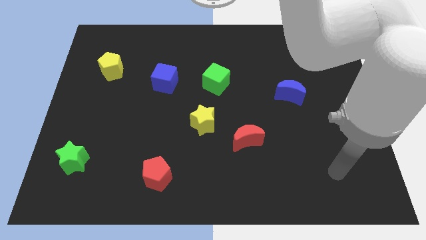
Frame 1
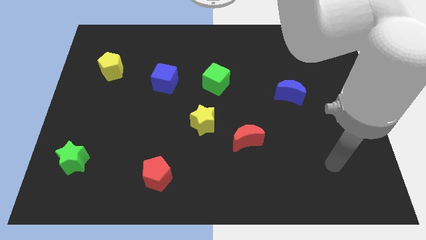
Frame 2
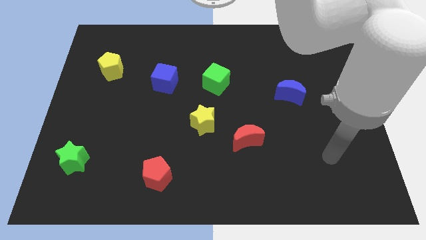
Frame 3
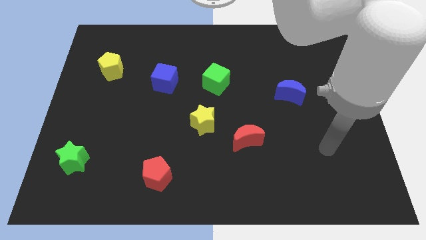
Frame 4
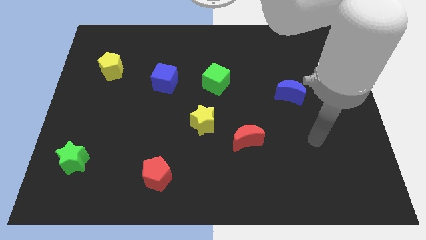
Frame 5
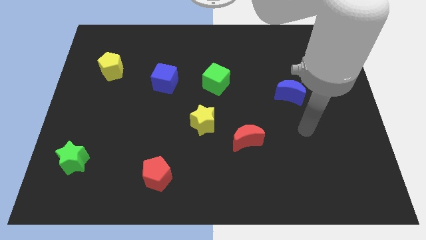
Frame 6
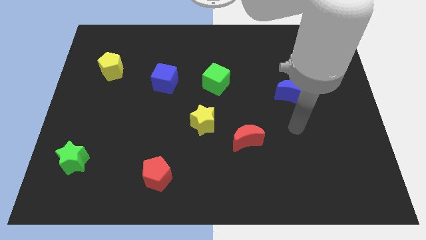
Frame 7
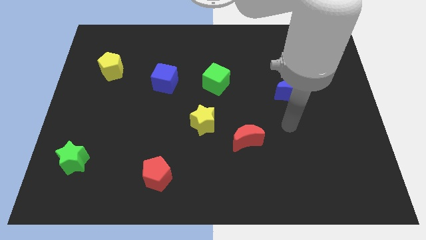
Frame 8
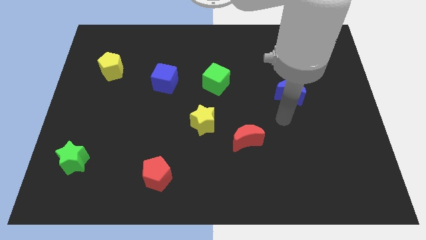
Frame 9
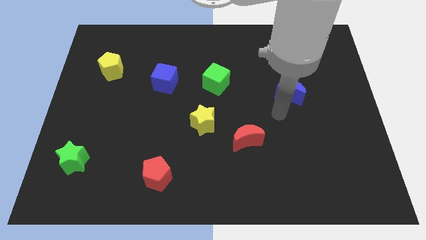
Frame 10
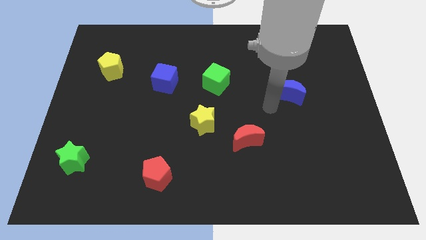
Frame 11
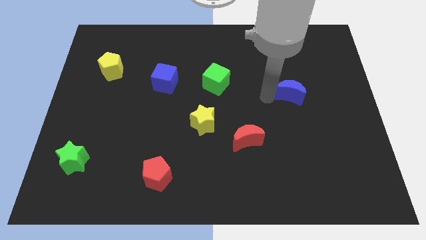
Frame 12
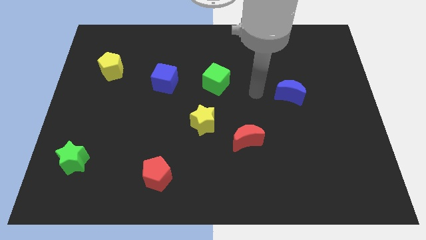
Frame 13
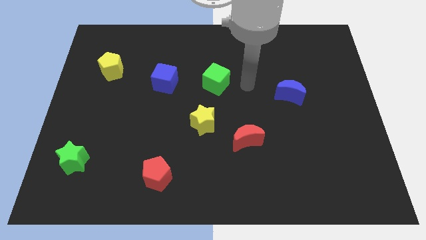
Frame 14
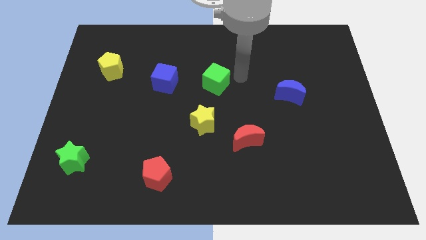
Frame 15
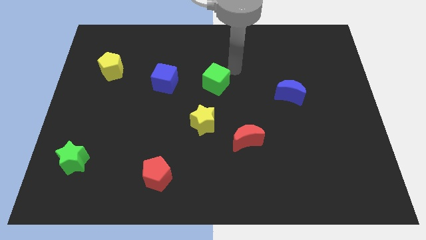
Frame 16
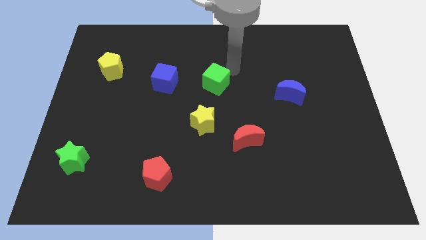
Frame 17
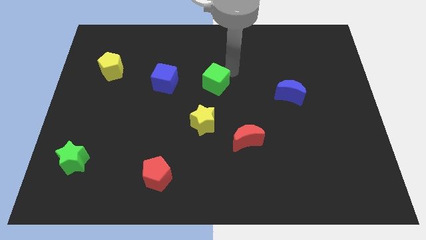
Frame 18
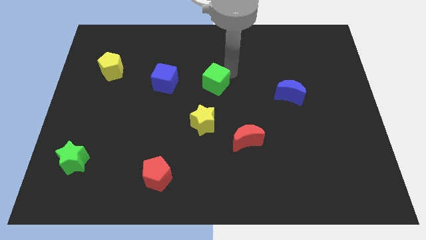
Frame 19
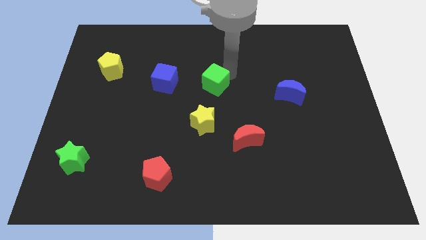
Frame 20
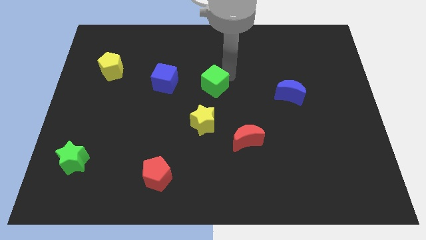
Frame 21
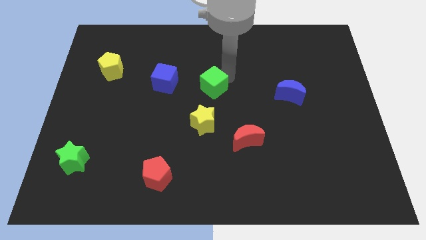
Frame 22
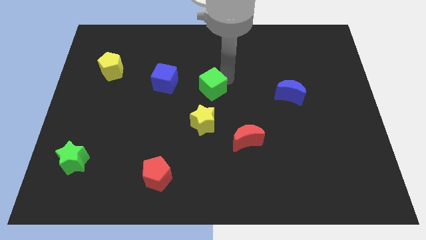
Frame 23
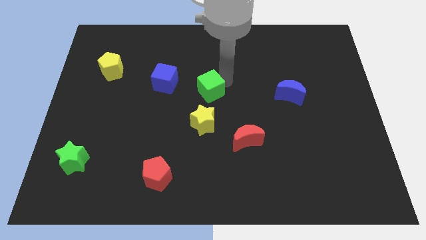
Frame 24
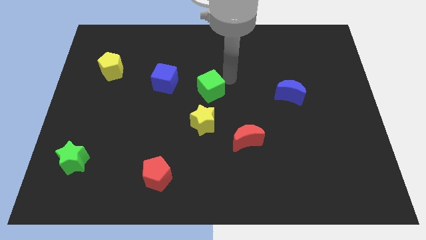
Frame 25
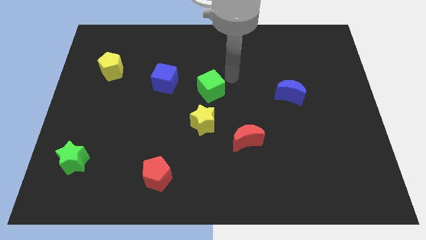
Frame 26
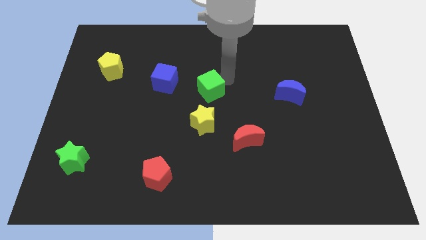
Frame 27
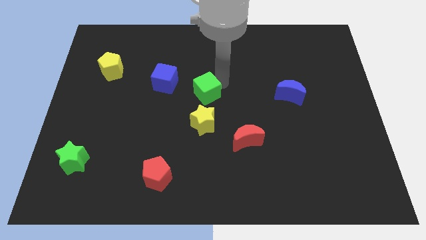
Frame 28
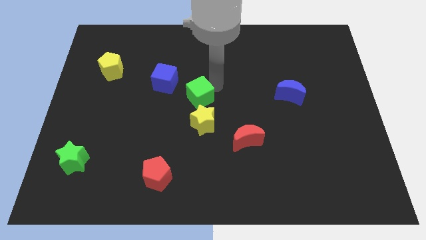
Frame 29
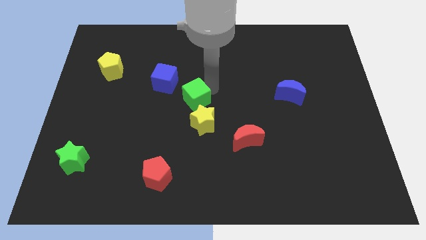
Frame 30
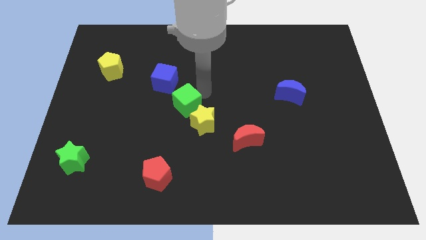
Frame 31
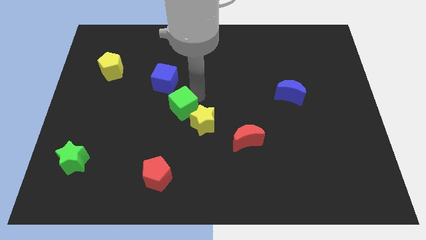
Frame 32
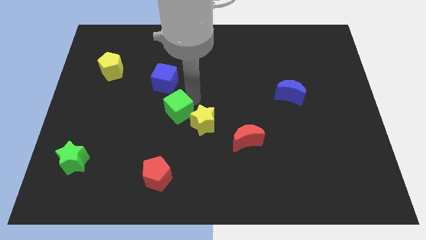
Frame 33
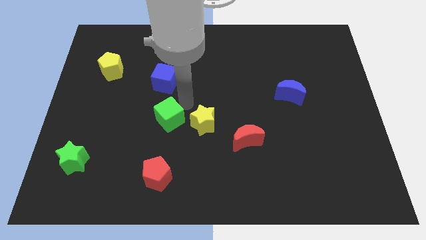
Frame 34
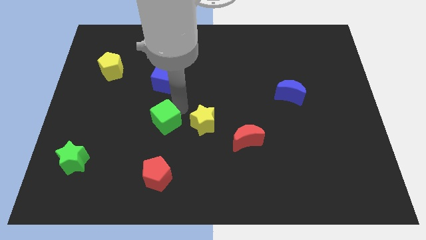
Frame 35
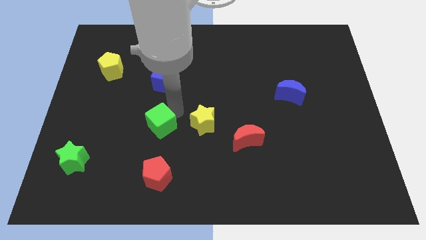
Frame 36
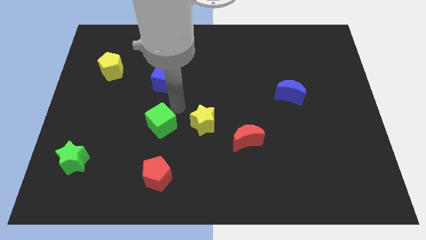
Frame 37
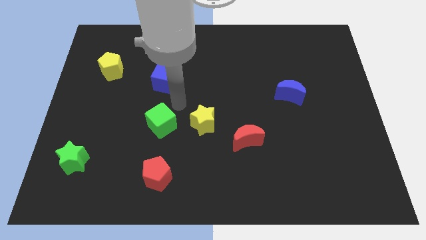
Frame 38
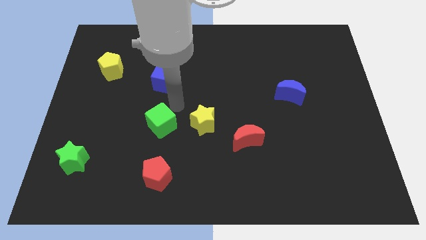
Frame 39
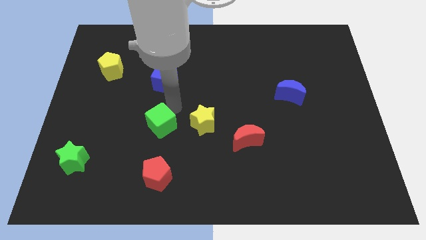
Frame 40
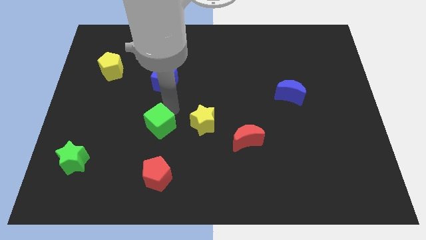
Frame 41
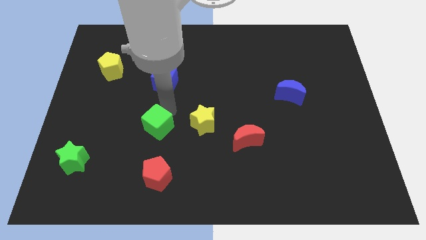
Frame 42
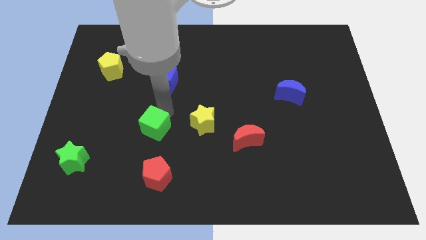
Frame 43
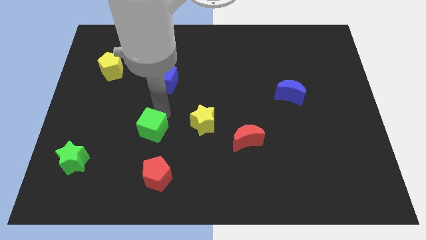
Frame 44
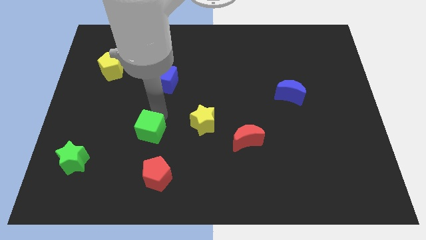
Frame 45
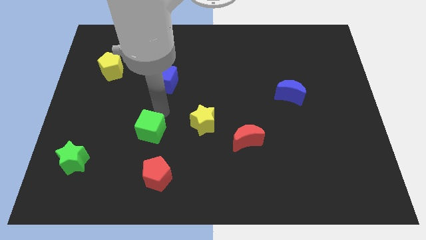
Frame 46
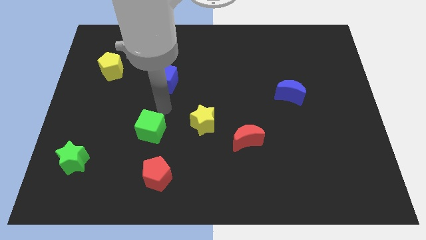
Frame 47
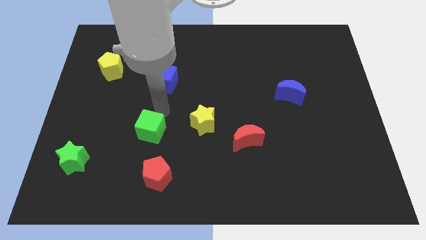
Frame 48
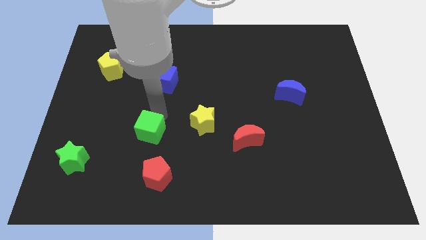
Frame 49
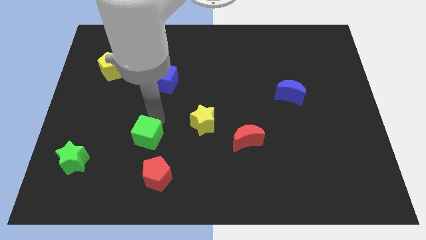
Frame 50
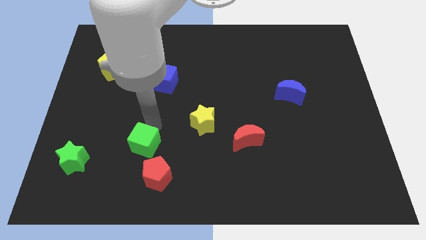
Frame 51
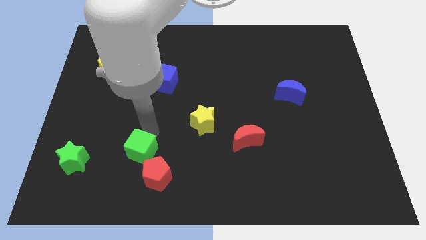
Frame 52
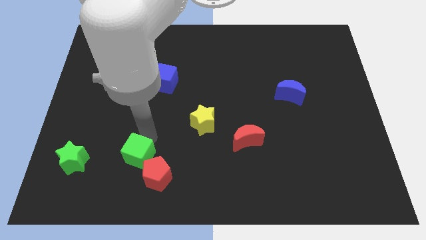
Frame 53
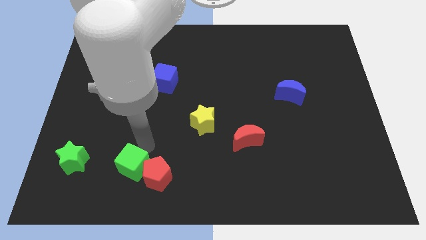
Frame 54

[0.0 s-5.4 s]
put the green cube left of the red pentagon

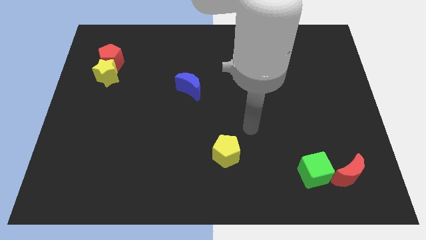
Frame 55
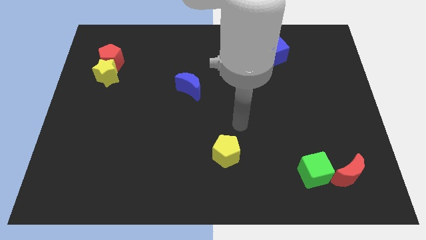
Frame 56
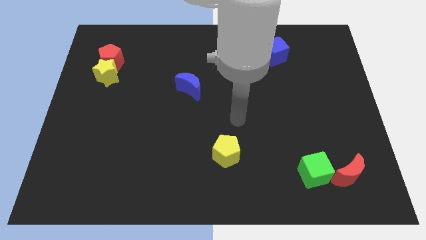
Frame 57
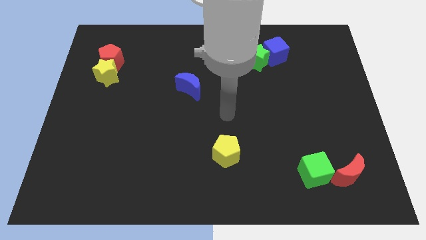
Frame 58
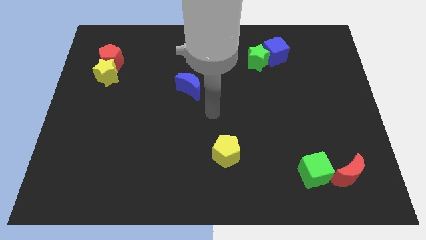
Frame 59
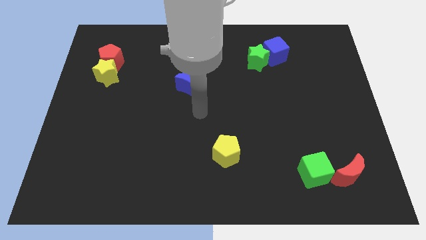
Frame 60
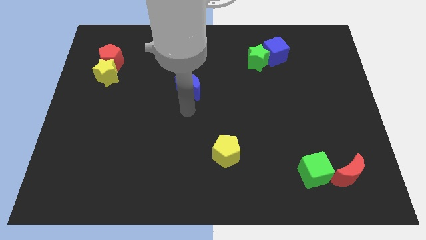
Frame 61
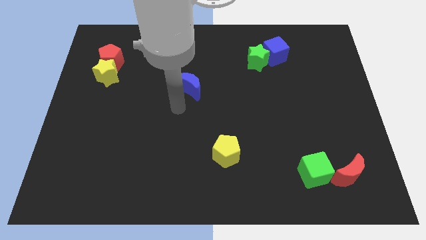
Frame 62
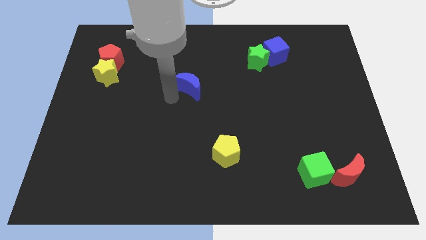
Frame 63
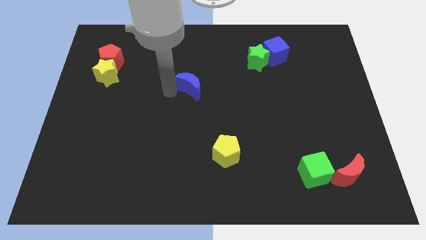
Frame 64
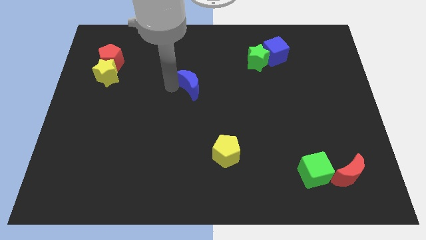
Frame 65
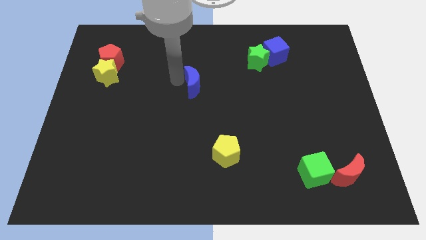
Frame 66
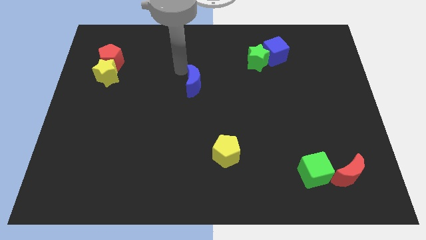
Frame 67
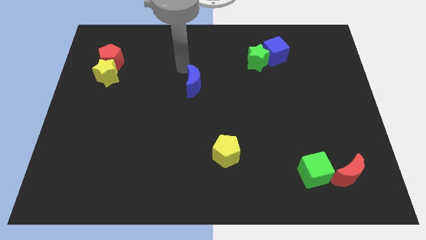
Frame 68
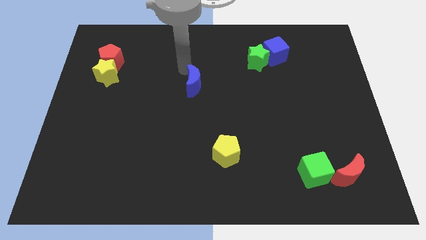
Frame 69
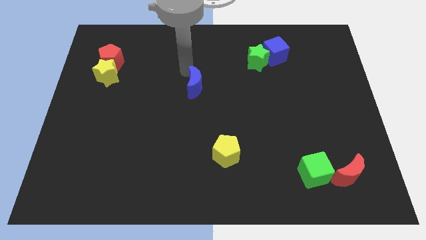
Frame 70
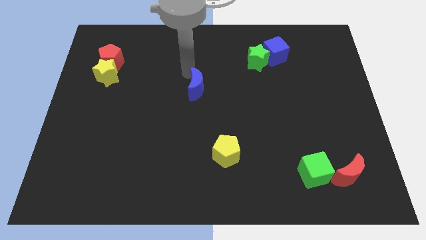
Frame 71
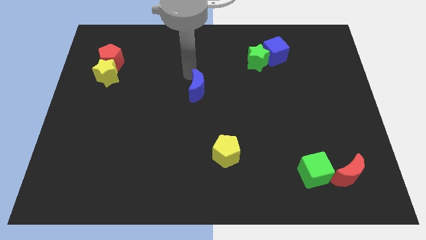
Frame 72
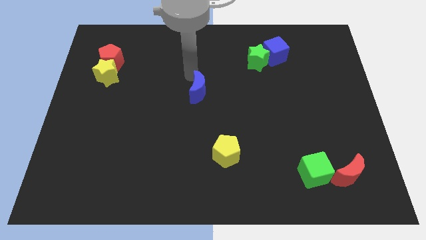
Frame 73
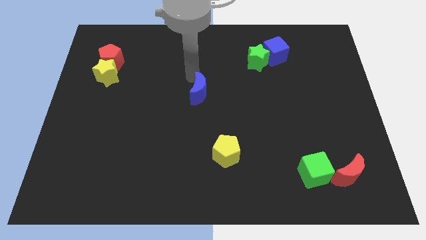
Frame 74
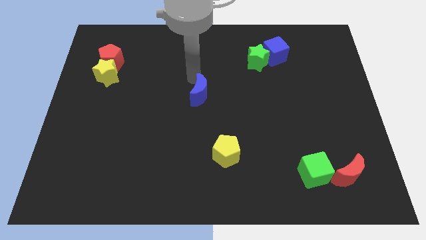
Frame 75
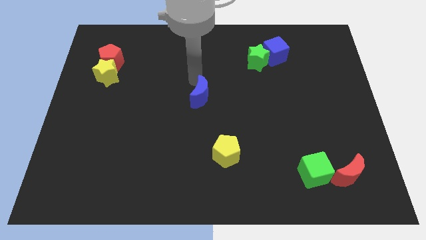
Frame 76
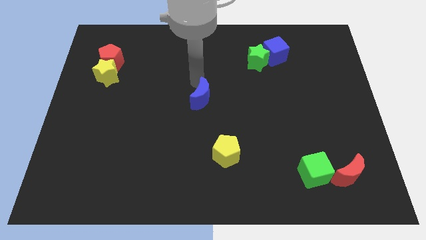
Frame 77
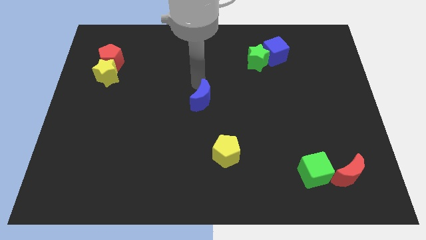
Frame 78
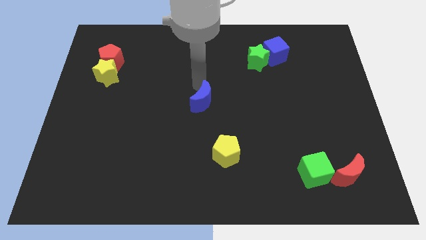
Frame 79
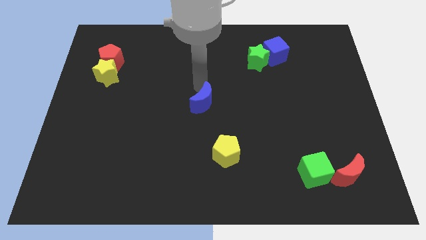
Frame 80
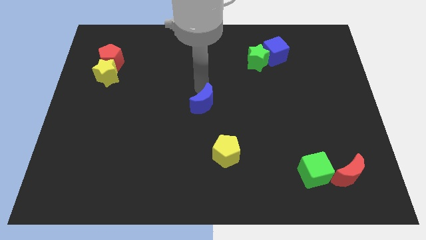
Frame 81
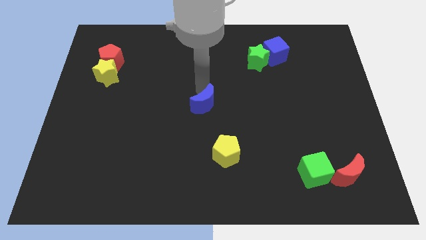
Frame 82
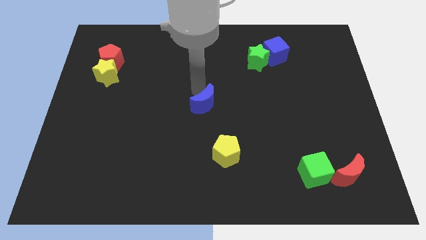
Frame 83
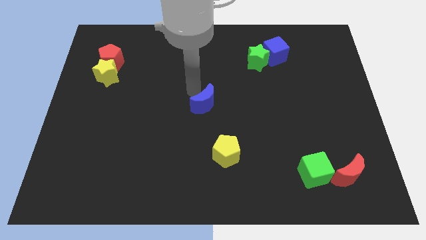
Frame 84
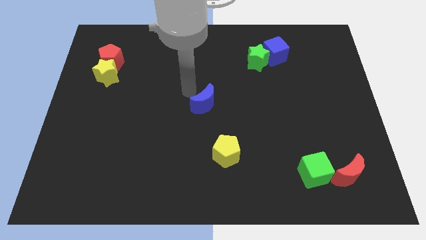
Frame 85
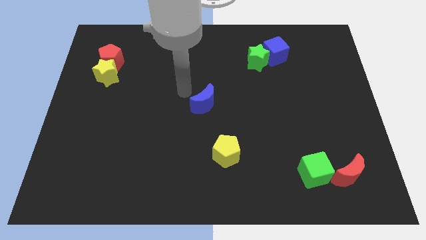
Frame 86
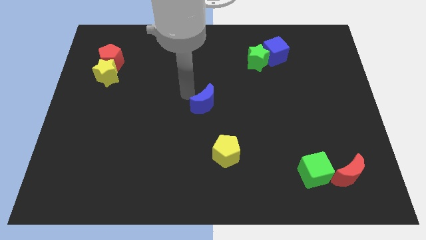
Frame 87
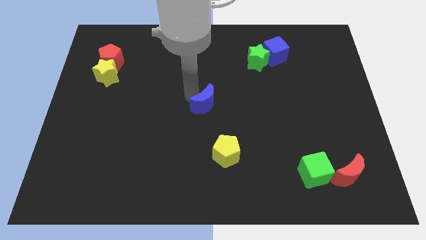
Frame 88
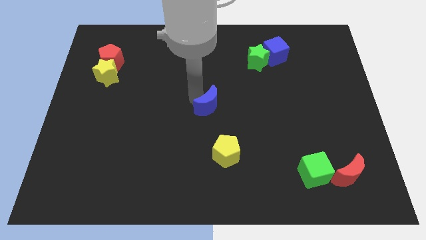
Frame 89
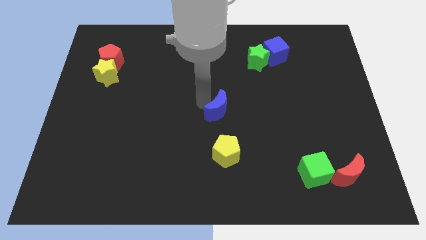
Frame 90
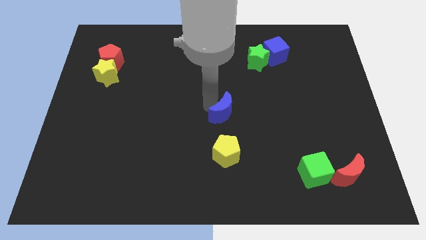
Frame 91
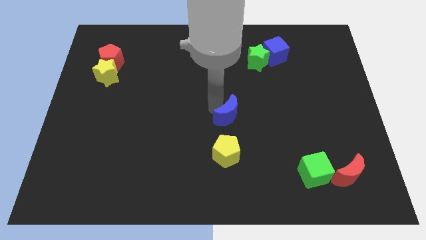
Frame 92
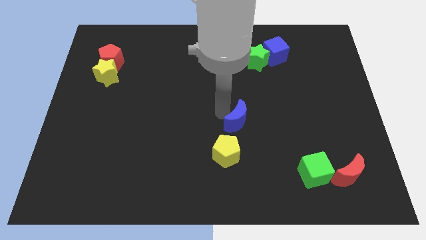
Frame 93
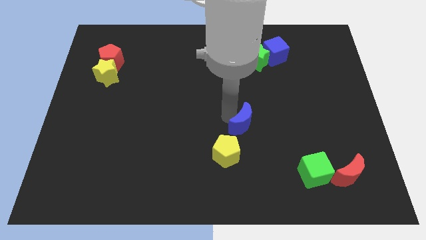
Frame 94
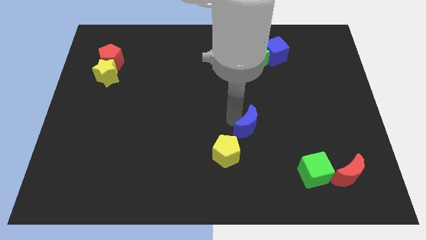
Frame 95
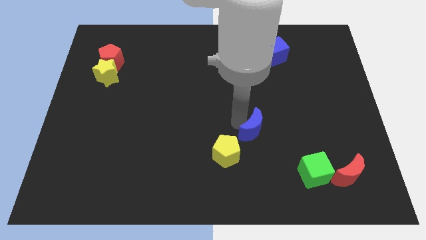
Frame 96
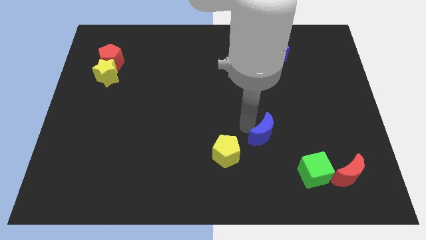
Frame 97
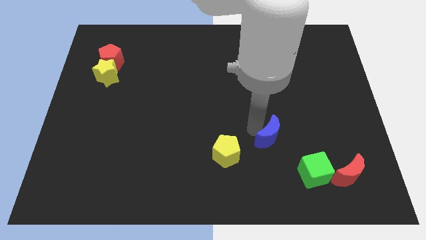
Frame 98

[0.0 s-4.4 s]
slide the blue moon diagonally up and to the left of the green cube
